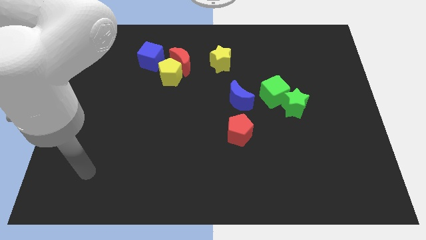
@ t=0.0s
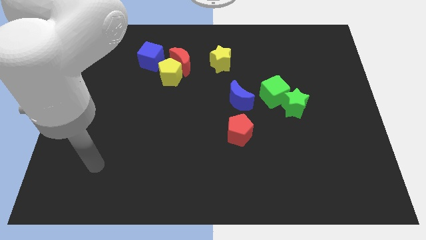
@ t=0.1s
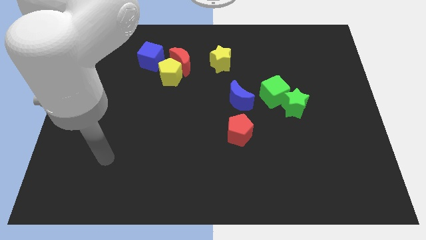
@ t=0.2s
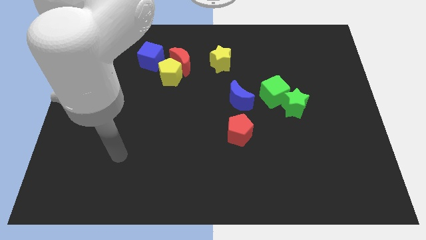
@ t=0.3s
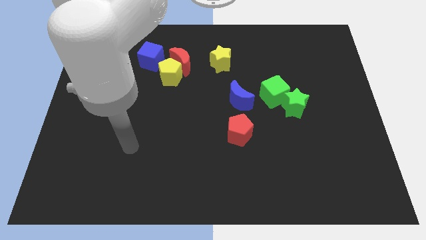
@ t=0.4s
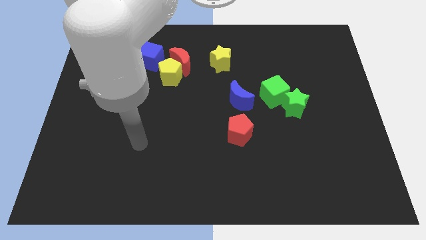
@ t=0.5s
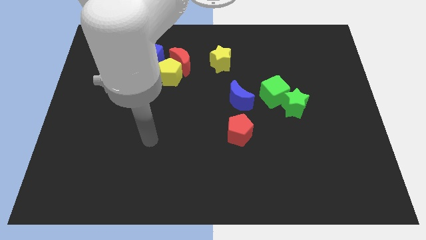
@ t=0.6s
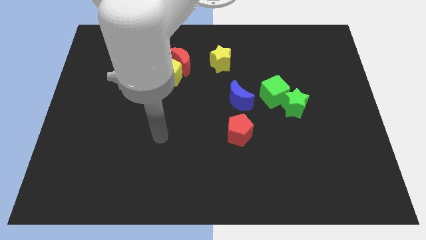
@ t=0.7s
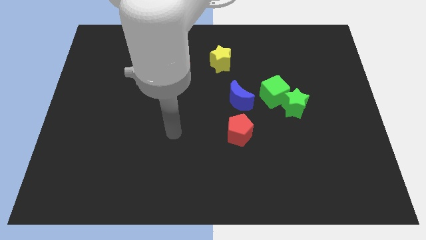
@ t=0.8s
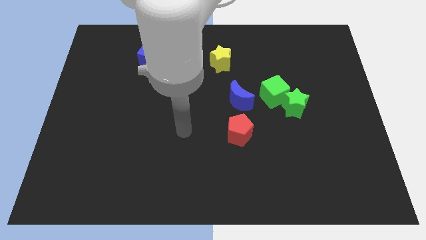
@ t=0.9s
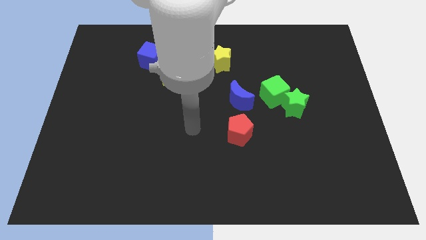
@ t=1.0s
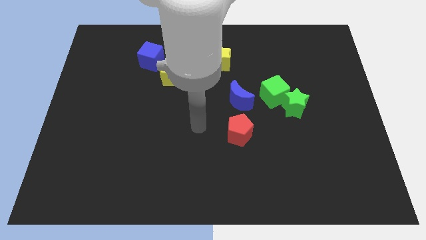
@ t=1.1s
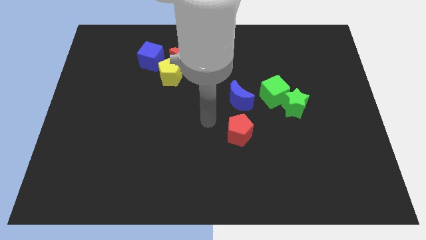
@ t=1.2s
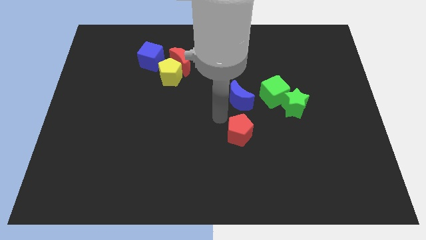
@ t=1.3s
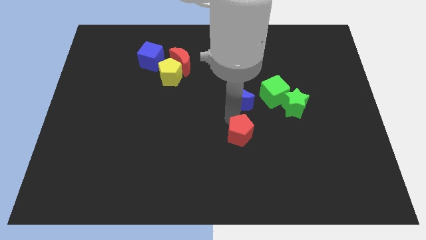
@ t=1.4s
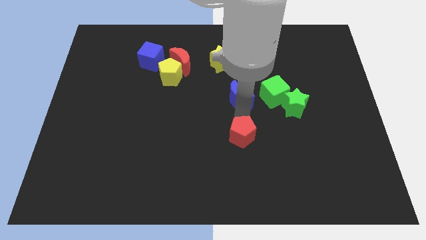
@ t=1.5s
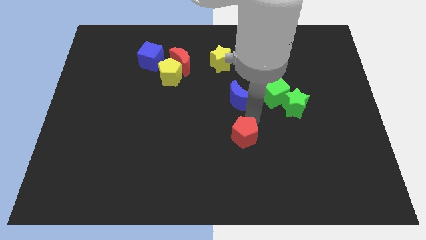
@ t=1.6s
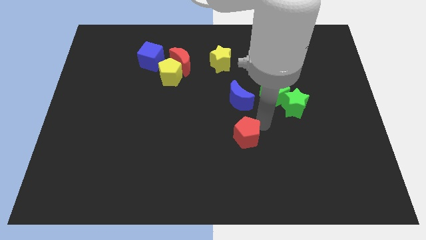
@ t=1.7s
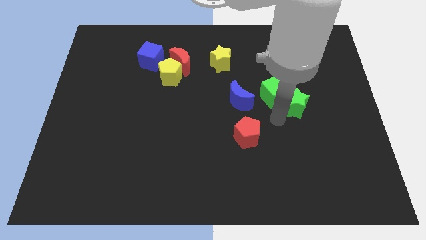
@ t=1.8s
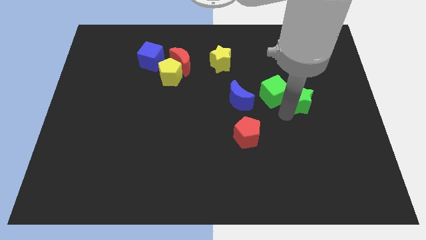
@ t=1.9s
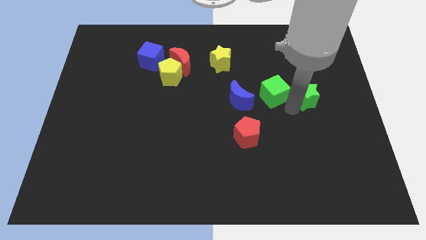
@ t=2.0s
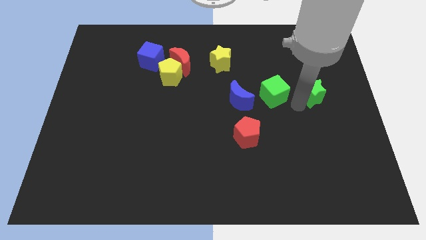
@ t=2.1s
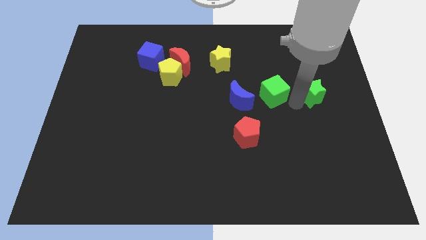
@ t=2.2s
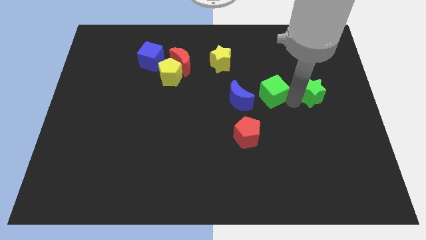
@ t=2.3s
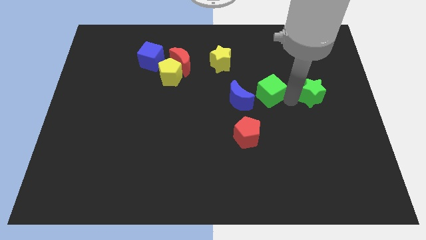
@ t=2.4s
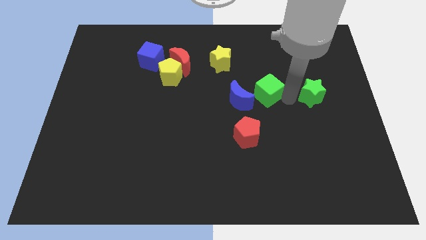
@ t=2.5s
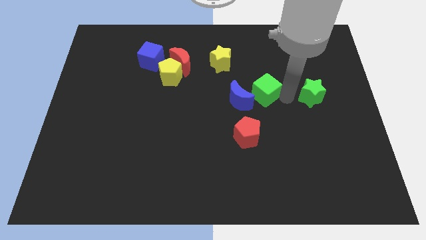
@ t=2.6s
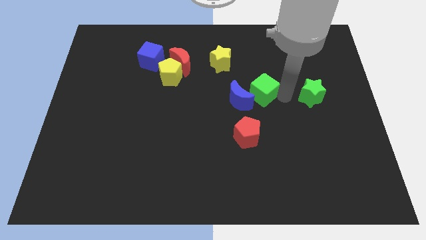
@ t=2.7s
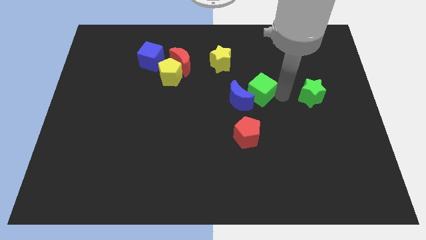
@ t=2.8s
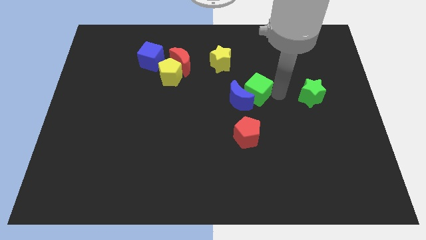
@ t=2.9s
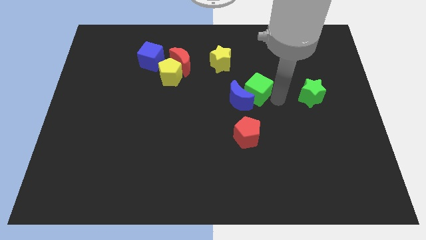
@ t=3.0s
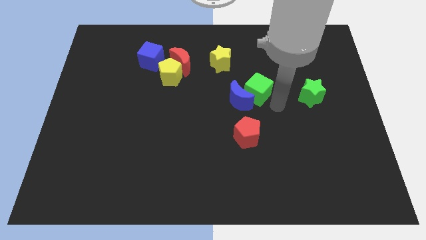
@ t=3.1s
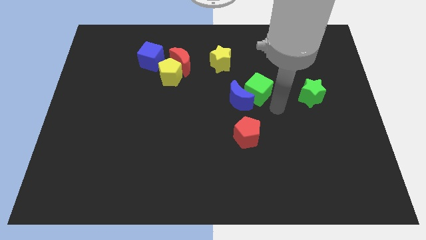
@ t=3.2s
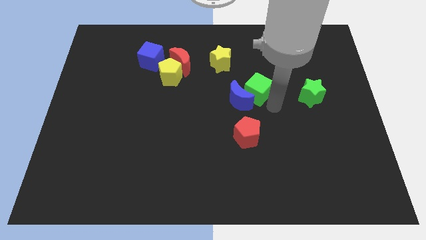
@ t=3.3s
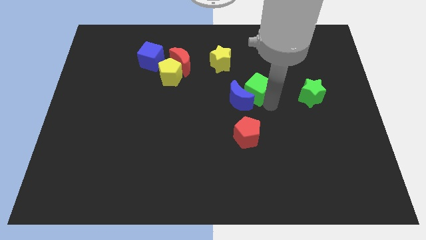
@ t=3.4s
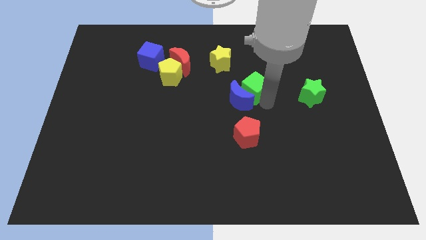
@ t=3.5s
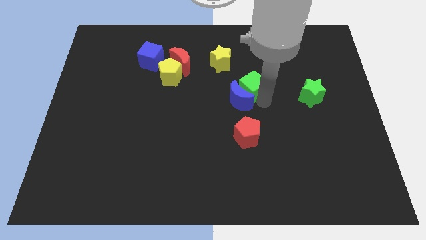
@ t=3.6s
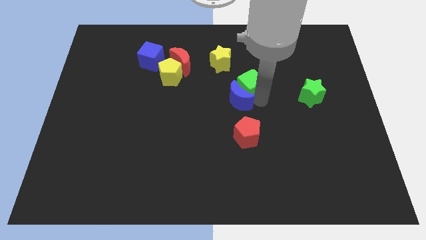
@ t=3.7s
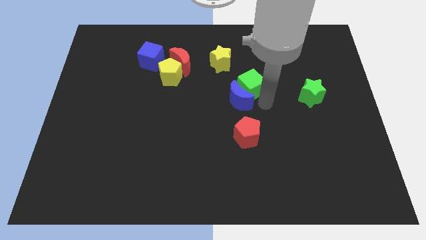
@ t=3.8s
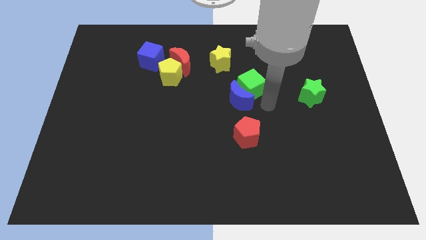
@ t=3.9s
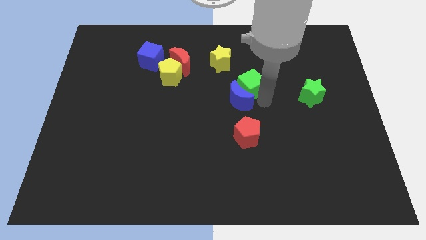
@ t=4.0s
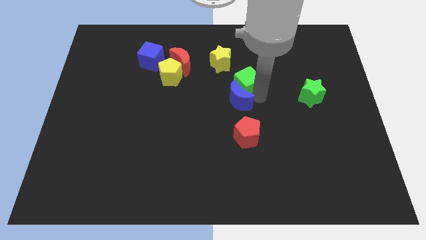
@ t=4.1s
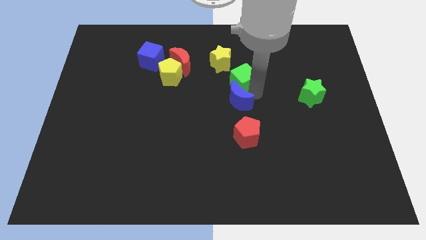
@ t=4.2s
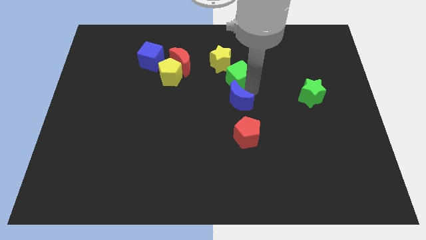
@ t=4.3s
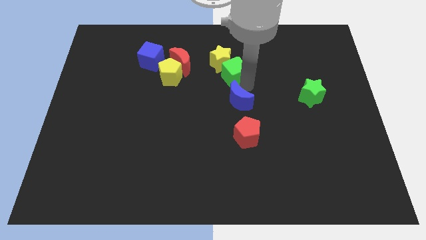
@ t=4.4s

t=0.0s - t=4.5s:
slide the green cube next to the yellow star

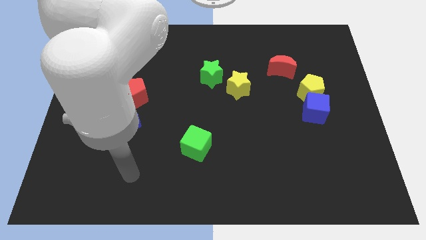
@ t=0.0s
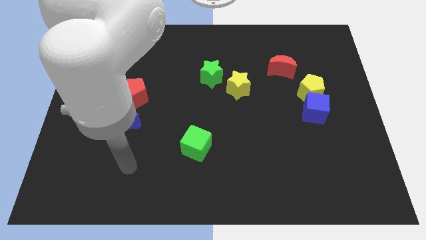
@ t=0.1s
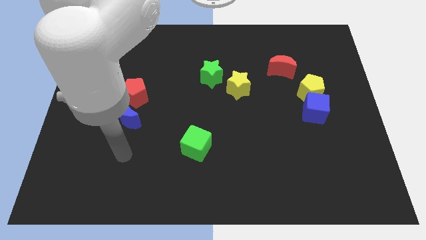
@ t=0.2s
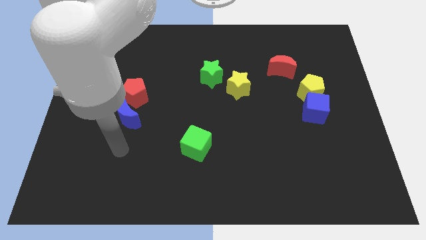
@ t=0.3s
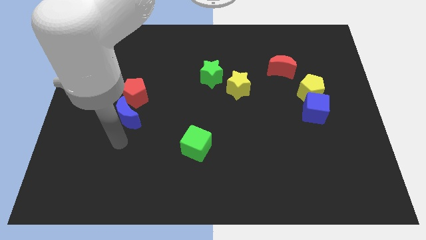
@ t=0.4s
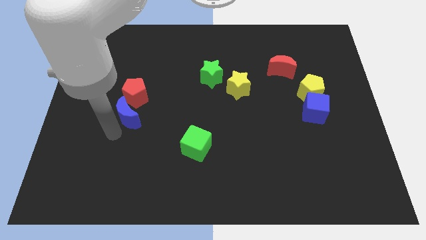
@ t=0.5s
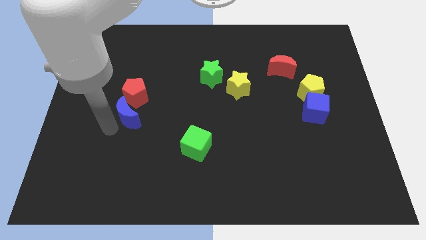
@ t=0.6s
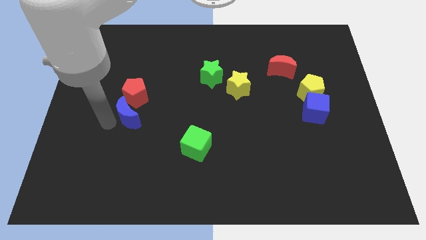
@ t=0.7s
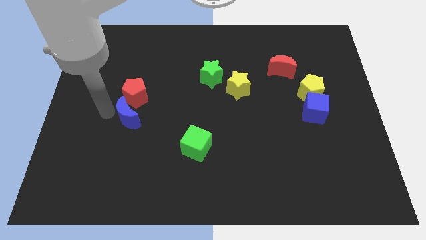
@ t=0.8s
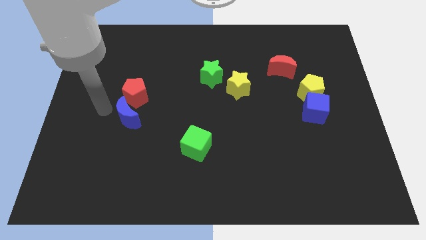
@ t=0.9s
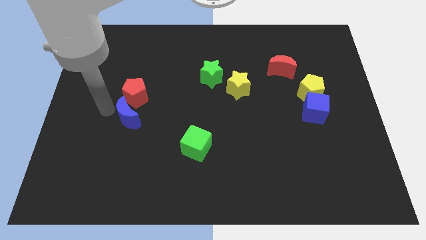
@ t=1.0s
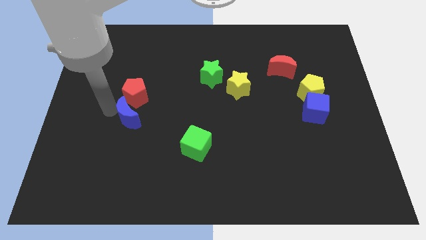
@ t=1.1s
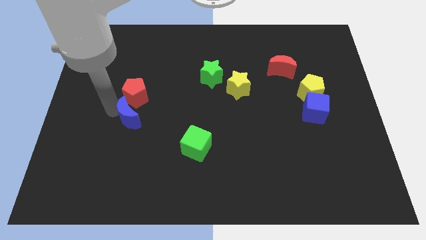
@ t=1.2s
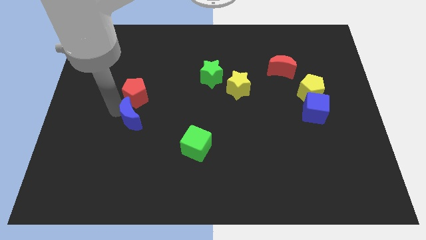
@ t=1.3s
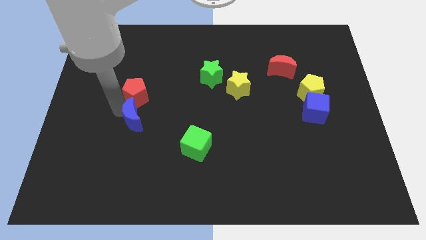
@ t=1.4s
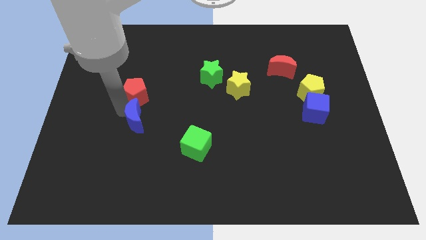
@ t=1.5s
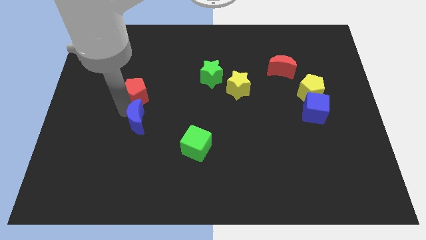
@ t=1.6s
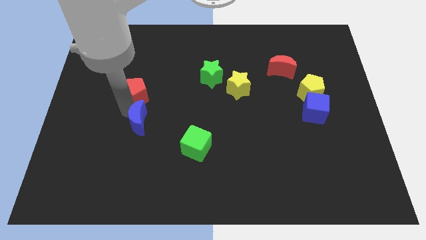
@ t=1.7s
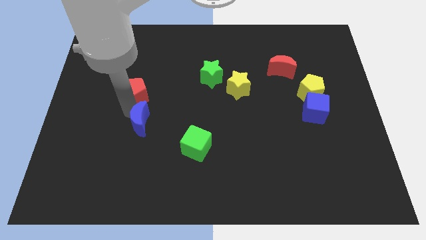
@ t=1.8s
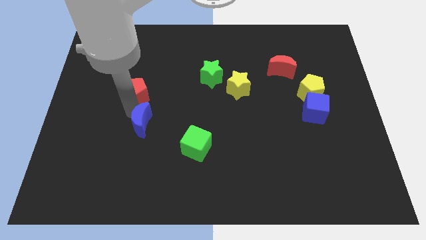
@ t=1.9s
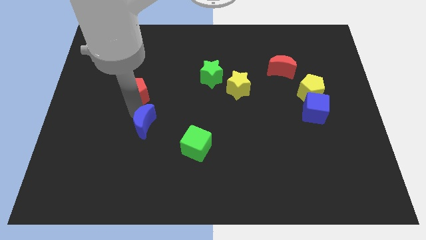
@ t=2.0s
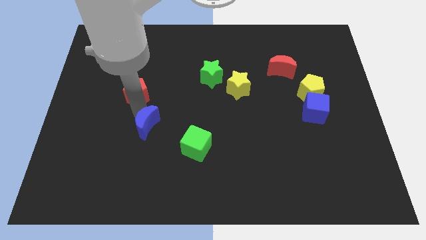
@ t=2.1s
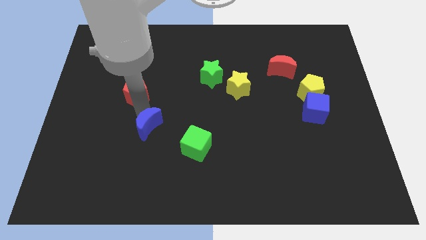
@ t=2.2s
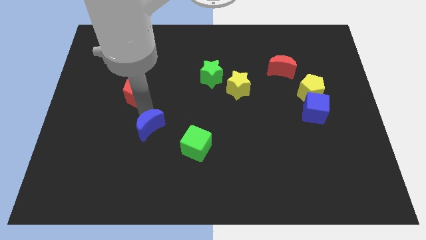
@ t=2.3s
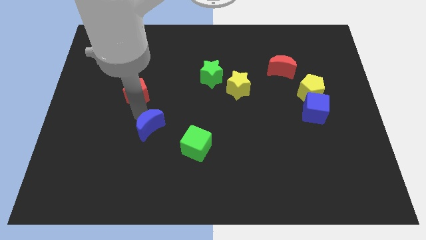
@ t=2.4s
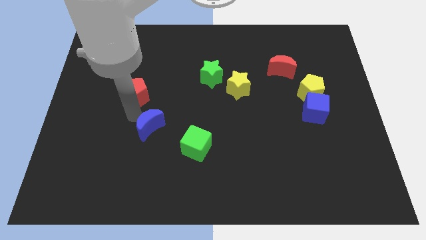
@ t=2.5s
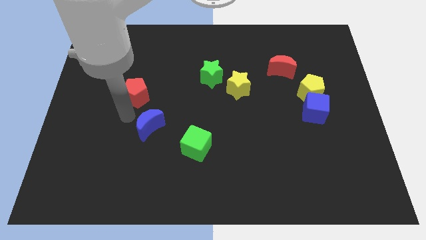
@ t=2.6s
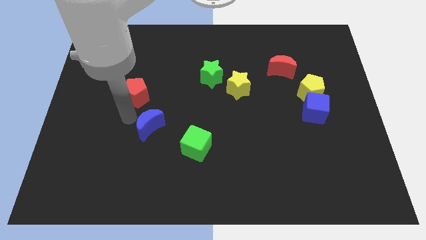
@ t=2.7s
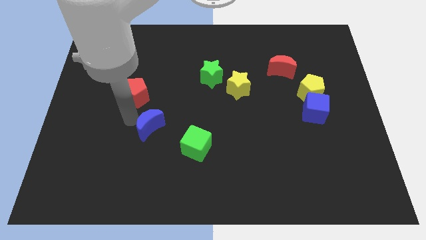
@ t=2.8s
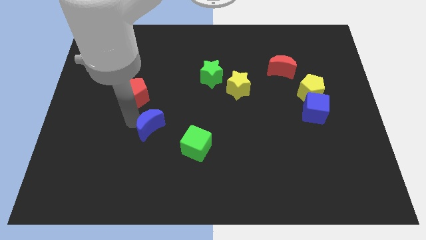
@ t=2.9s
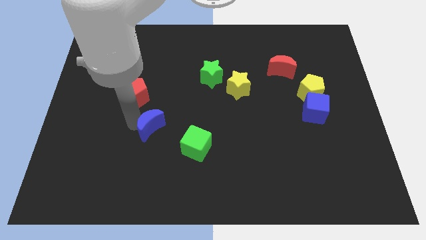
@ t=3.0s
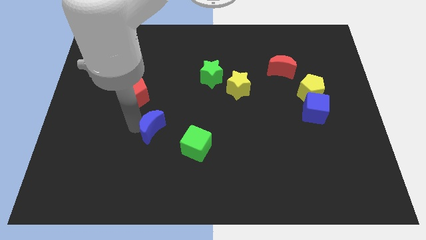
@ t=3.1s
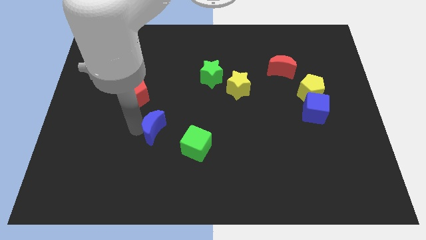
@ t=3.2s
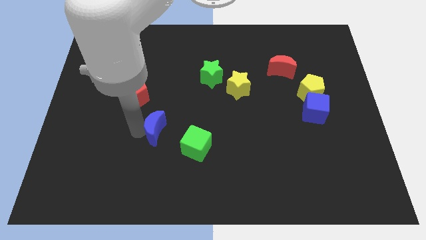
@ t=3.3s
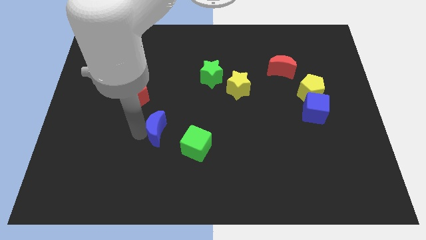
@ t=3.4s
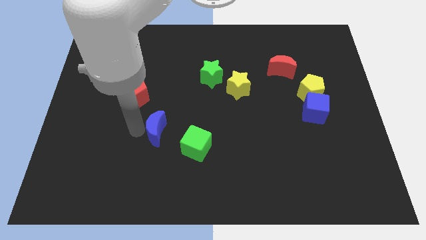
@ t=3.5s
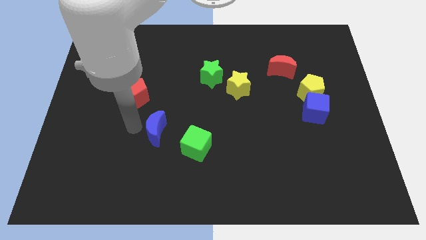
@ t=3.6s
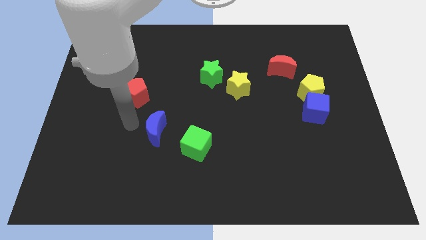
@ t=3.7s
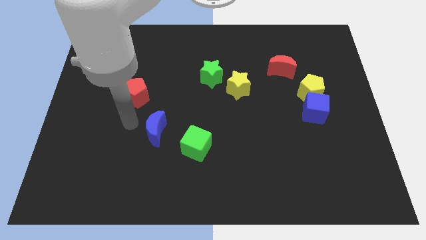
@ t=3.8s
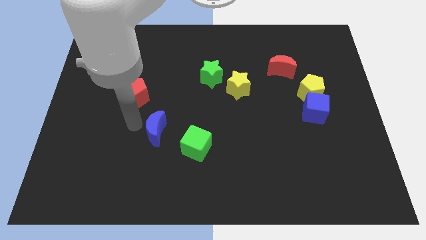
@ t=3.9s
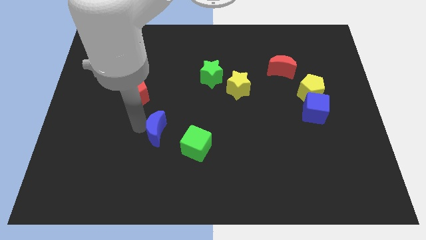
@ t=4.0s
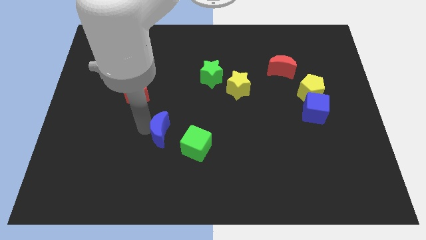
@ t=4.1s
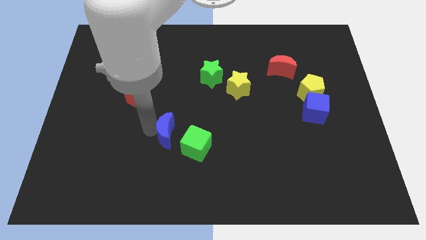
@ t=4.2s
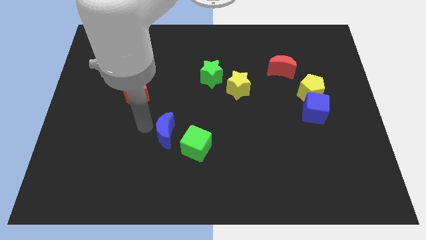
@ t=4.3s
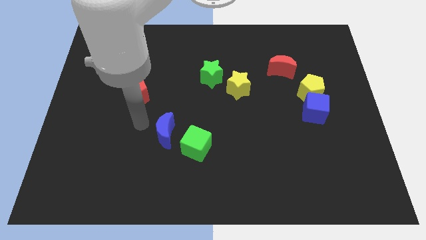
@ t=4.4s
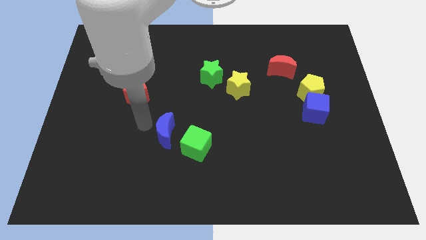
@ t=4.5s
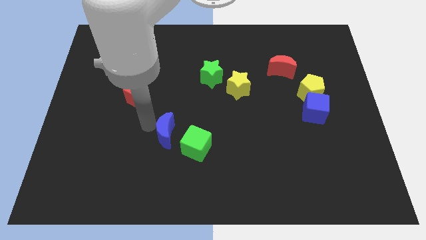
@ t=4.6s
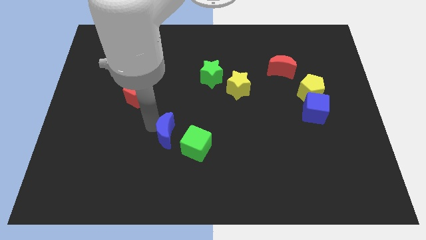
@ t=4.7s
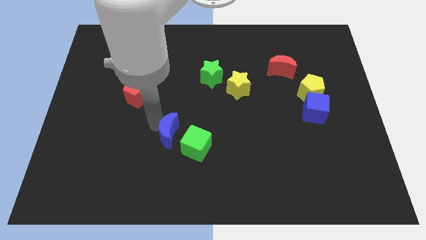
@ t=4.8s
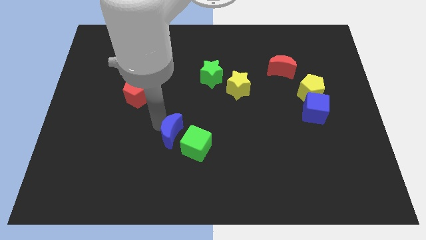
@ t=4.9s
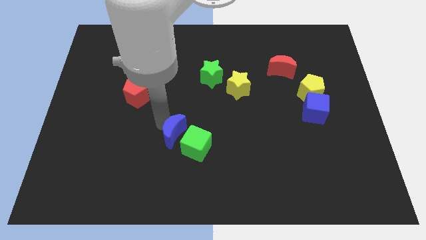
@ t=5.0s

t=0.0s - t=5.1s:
push the blue moon next to the green cube
